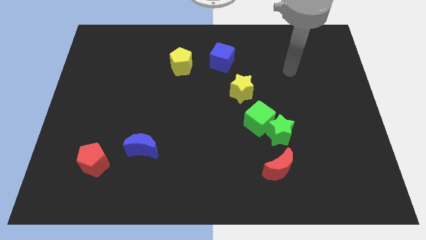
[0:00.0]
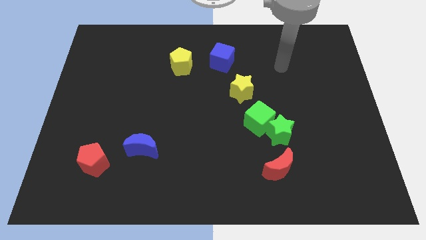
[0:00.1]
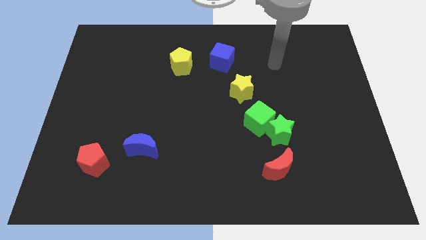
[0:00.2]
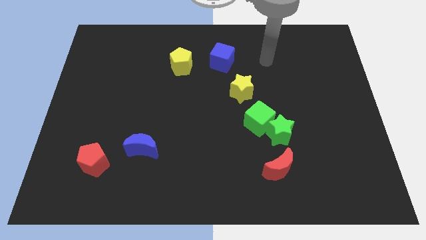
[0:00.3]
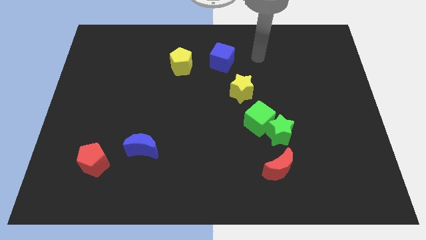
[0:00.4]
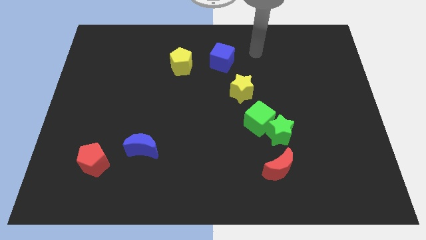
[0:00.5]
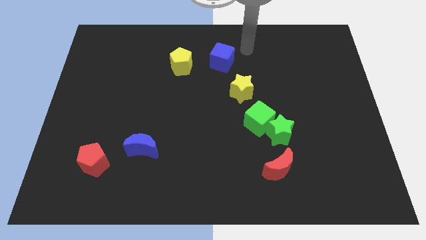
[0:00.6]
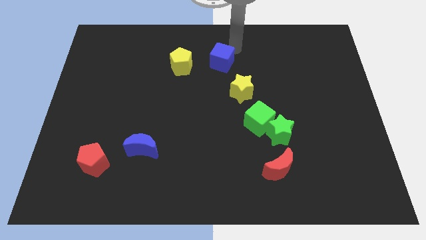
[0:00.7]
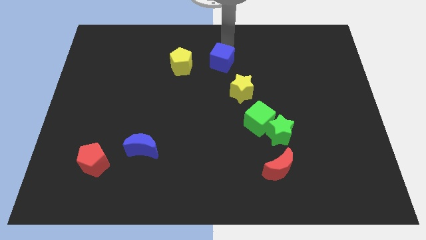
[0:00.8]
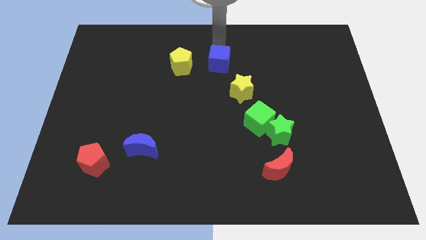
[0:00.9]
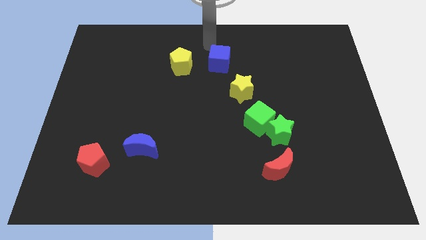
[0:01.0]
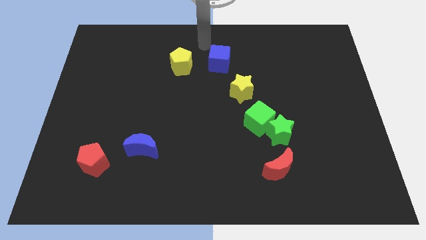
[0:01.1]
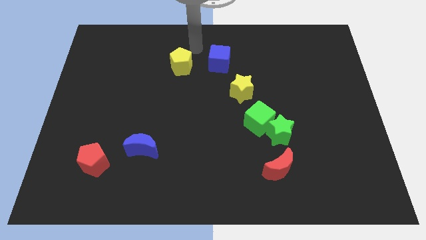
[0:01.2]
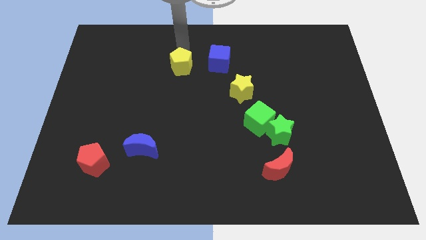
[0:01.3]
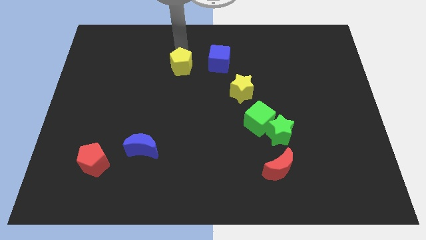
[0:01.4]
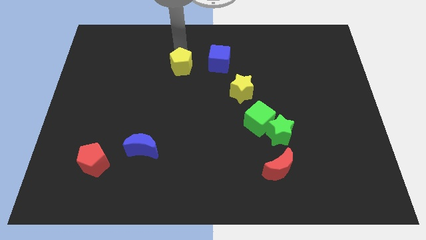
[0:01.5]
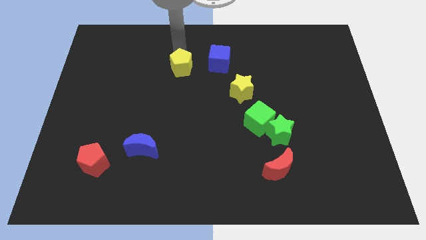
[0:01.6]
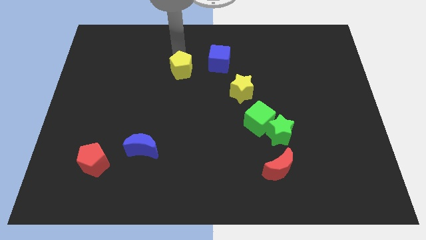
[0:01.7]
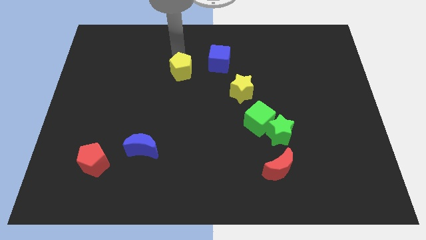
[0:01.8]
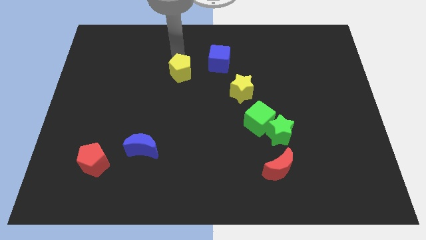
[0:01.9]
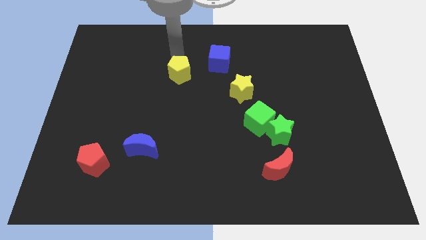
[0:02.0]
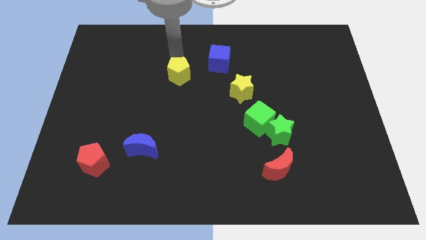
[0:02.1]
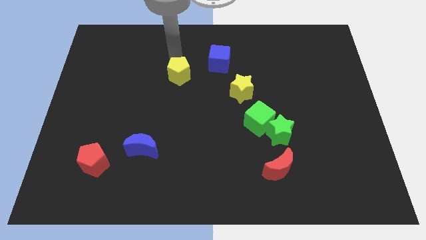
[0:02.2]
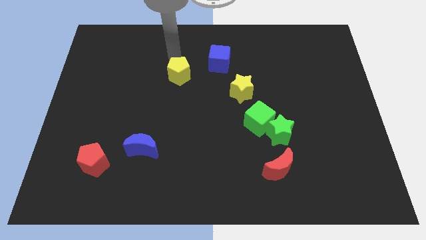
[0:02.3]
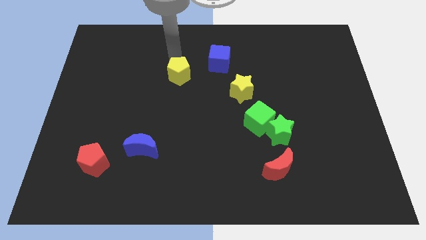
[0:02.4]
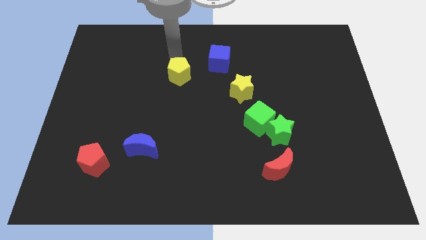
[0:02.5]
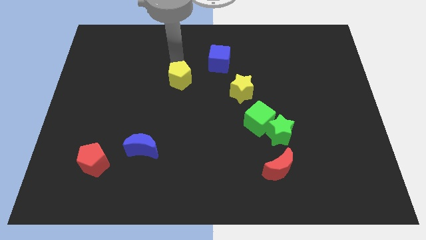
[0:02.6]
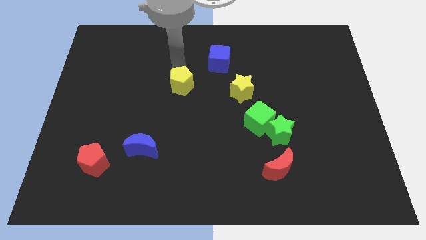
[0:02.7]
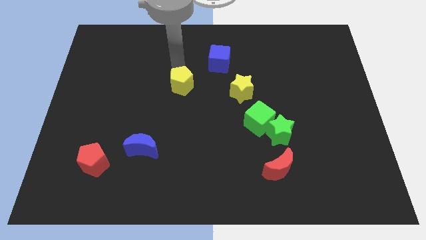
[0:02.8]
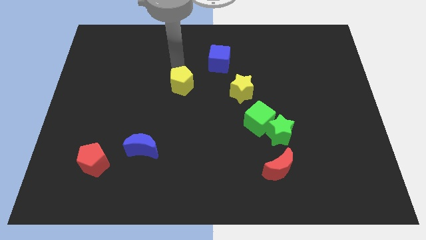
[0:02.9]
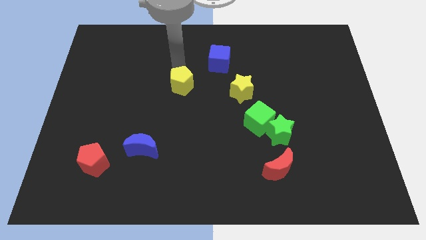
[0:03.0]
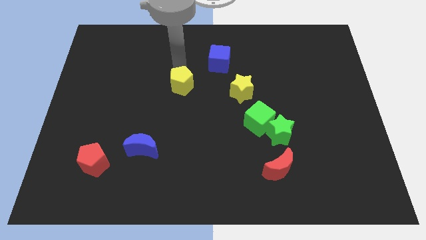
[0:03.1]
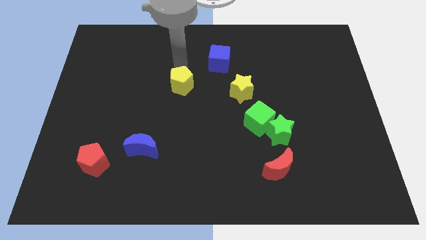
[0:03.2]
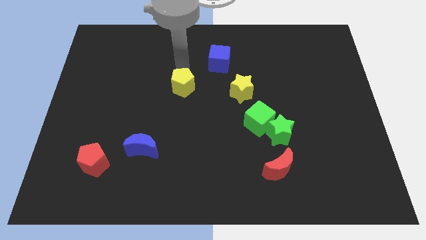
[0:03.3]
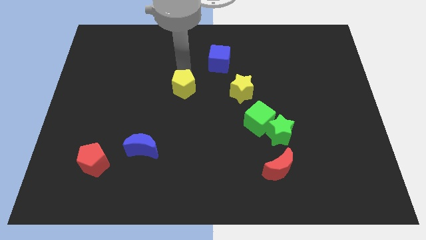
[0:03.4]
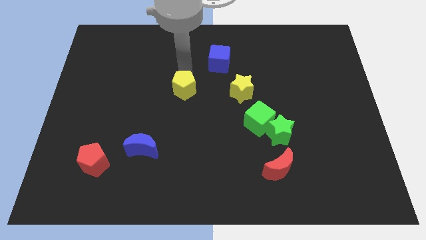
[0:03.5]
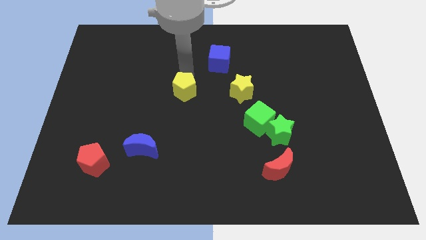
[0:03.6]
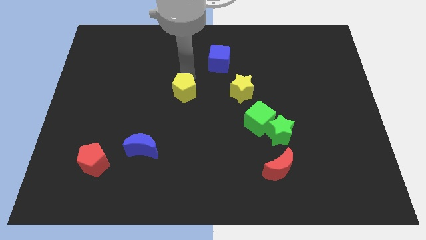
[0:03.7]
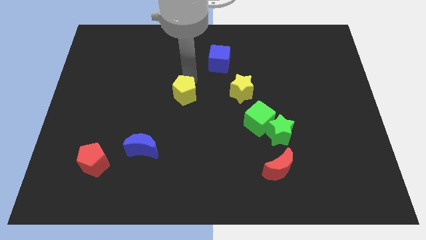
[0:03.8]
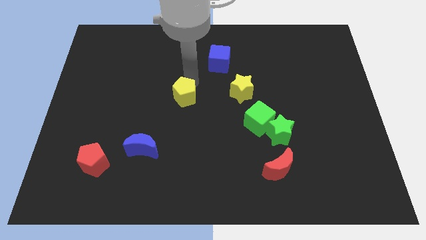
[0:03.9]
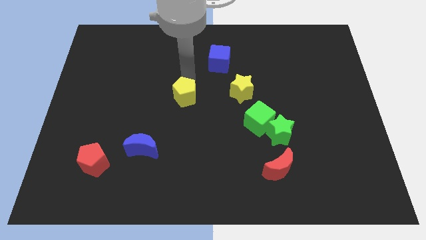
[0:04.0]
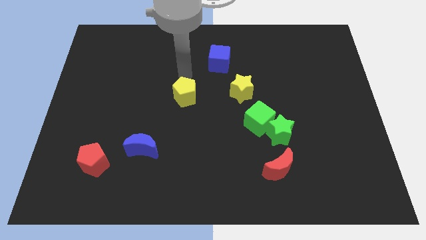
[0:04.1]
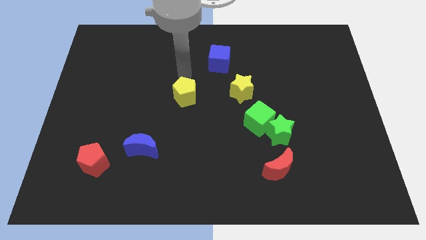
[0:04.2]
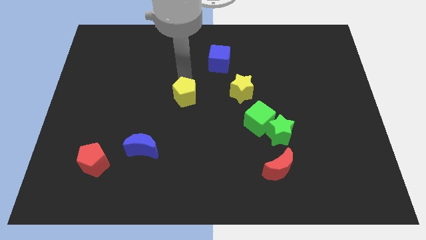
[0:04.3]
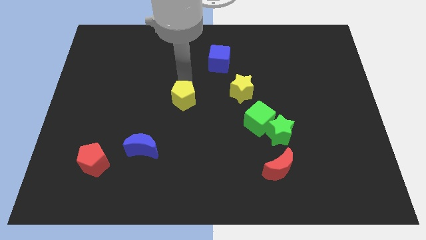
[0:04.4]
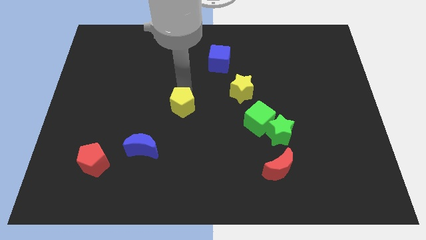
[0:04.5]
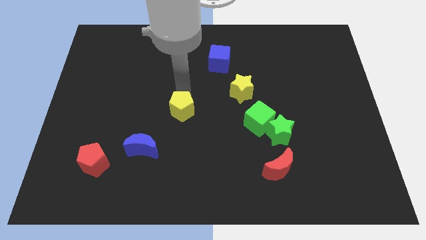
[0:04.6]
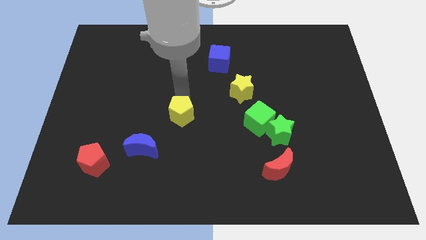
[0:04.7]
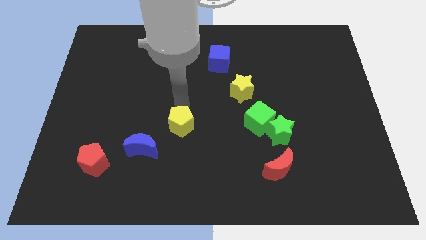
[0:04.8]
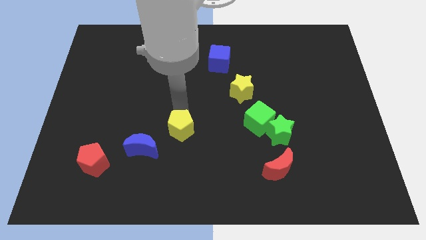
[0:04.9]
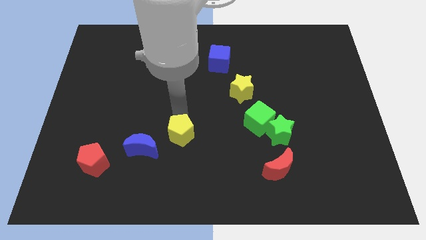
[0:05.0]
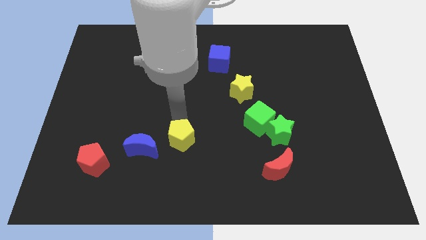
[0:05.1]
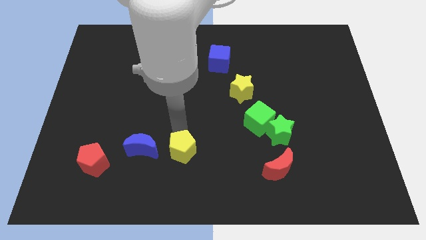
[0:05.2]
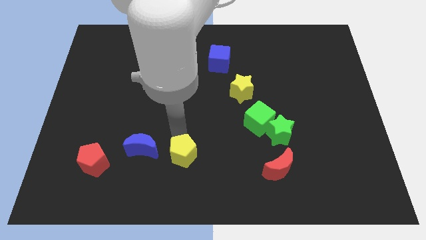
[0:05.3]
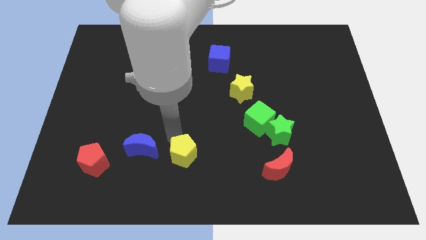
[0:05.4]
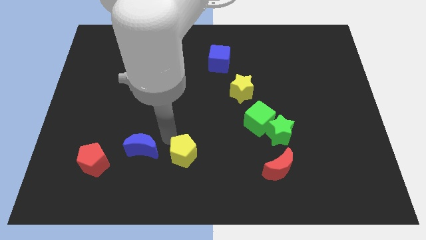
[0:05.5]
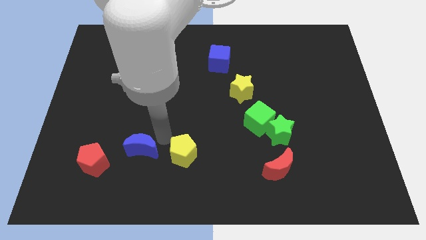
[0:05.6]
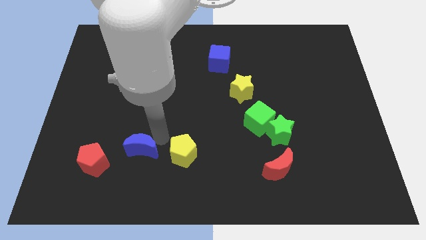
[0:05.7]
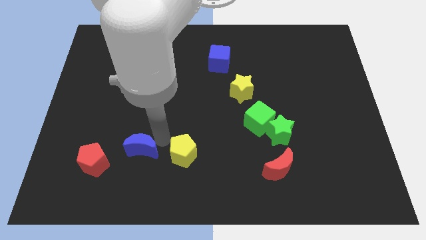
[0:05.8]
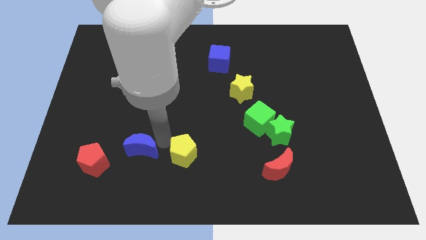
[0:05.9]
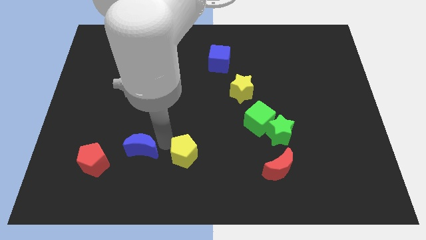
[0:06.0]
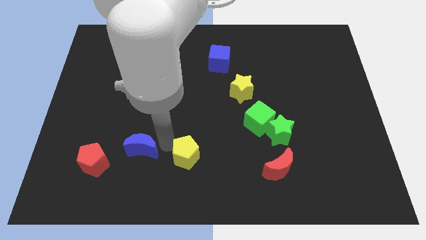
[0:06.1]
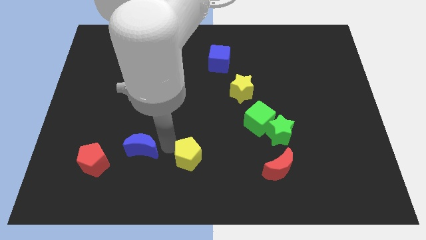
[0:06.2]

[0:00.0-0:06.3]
put the yellow pentagon to the bottom side
